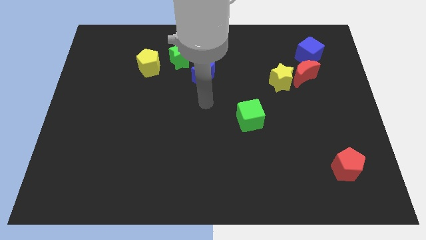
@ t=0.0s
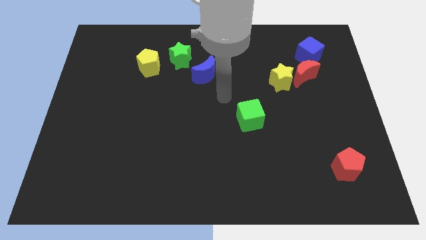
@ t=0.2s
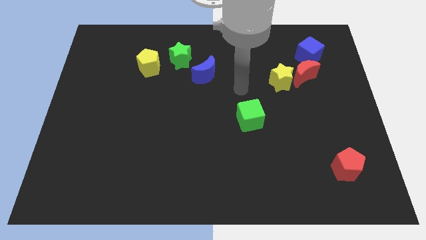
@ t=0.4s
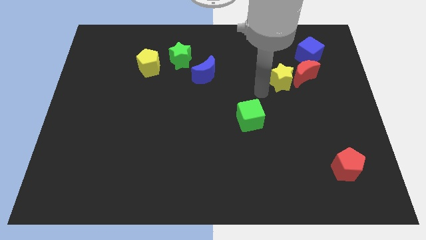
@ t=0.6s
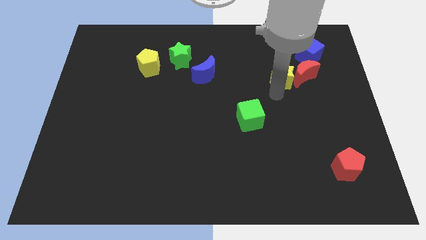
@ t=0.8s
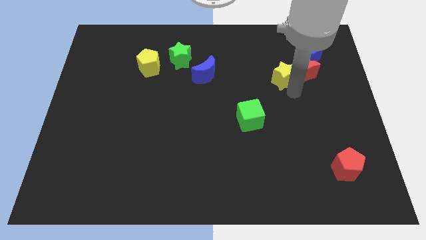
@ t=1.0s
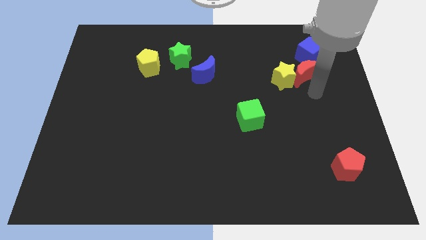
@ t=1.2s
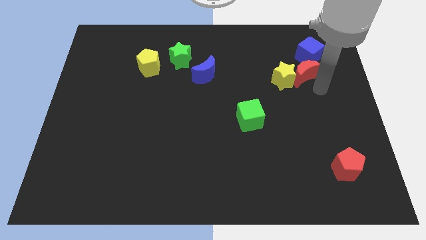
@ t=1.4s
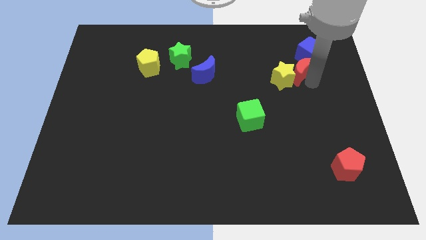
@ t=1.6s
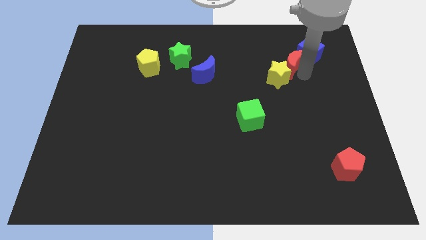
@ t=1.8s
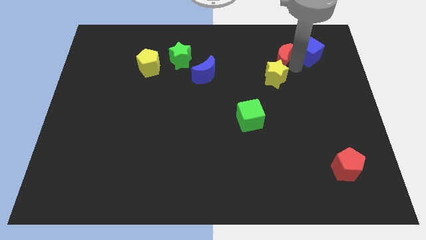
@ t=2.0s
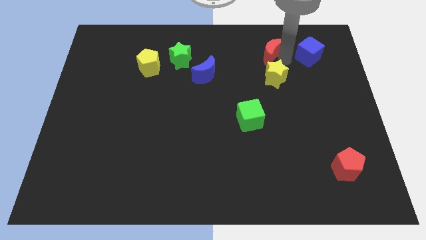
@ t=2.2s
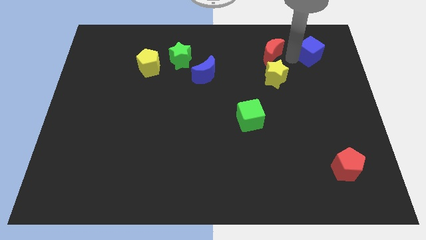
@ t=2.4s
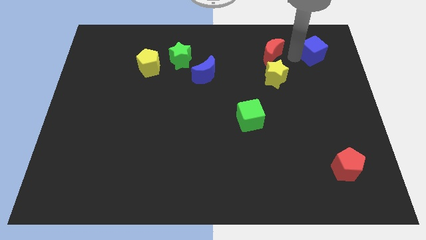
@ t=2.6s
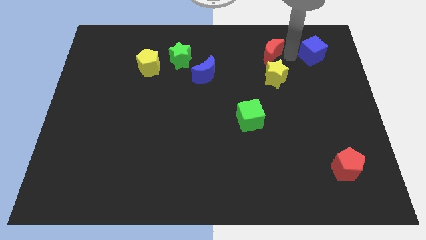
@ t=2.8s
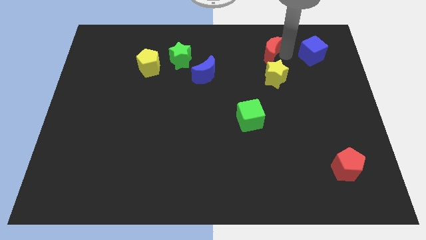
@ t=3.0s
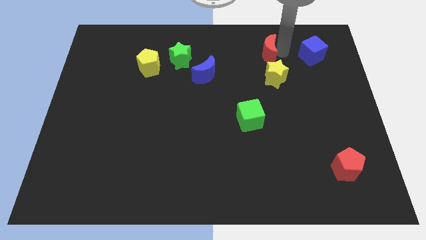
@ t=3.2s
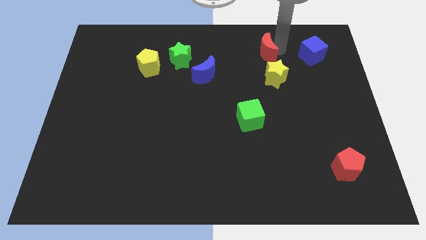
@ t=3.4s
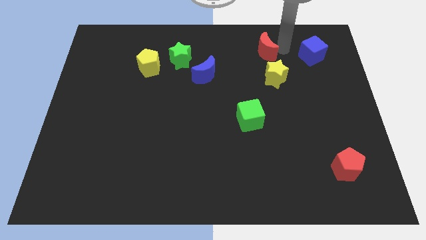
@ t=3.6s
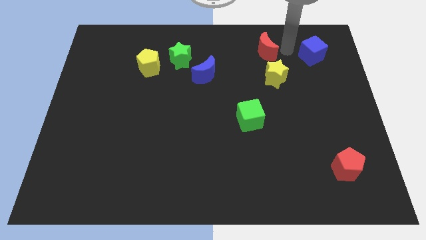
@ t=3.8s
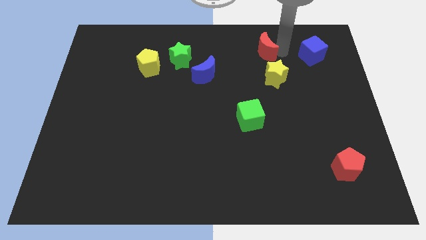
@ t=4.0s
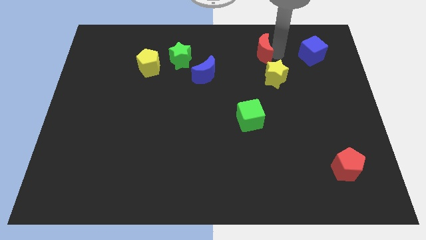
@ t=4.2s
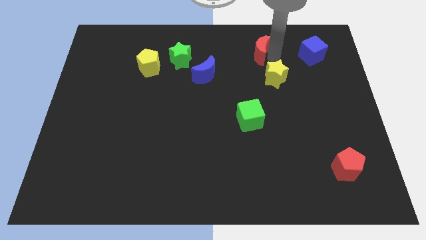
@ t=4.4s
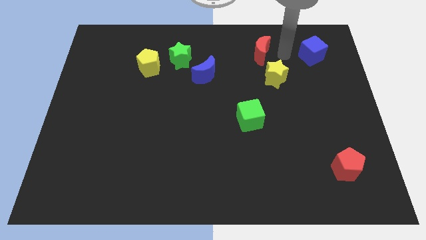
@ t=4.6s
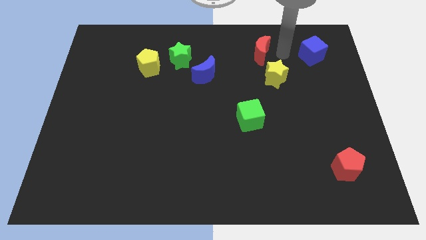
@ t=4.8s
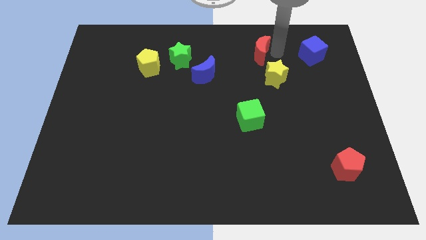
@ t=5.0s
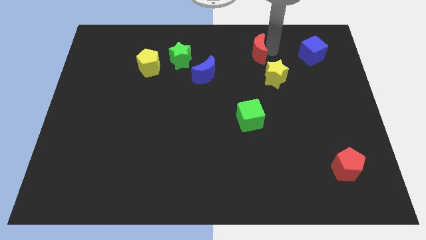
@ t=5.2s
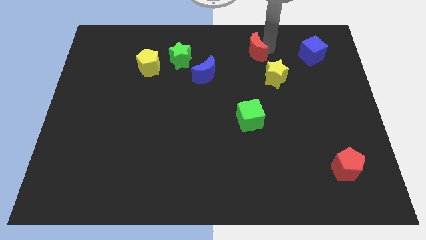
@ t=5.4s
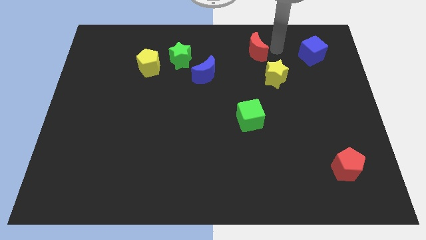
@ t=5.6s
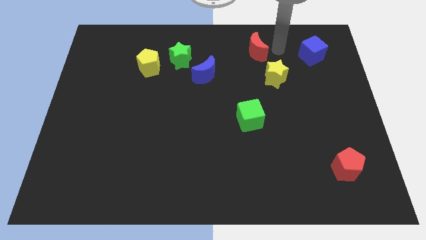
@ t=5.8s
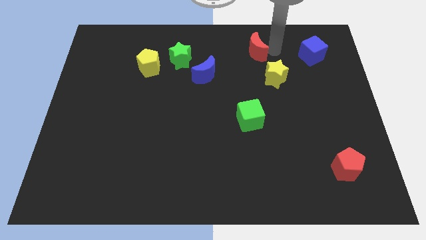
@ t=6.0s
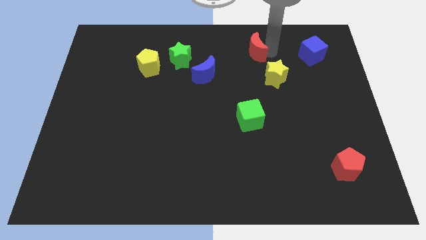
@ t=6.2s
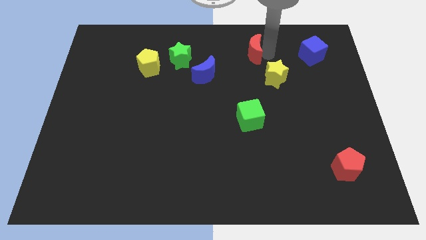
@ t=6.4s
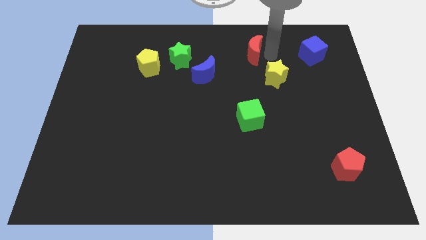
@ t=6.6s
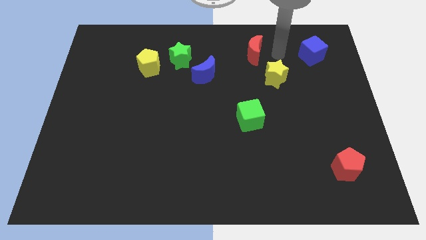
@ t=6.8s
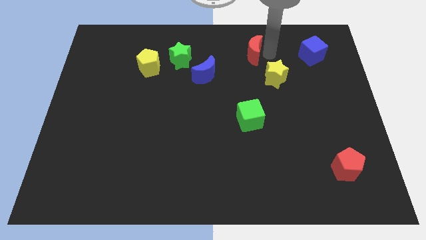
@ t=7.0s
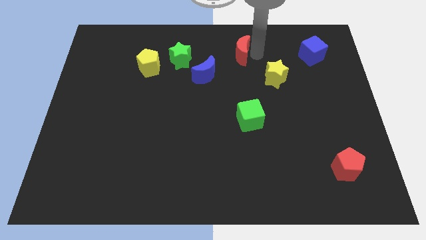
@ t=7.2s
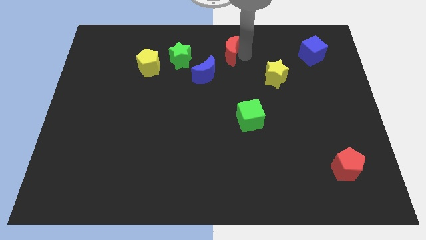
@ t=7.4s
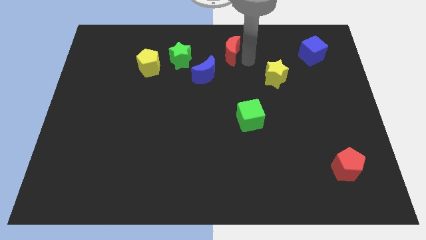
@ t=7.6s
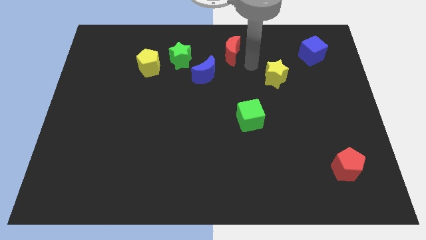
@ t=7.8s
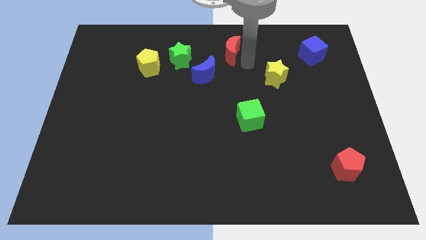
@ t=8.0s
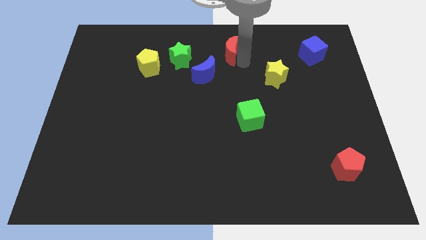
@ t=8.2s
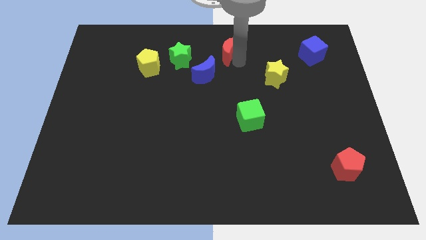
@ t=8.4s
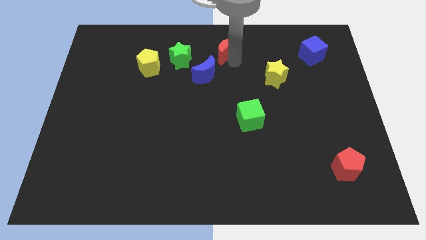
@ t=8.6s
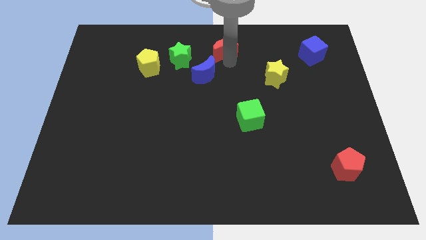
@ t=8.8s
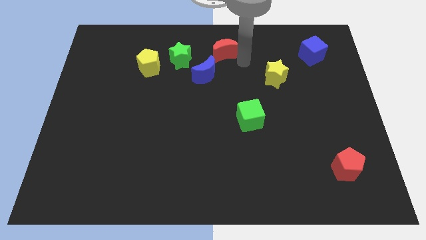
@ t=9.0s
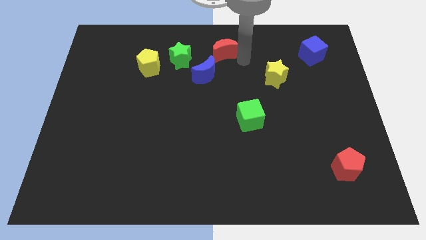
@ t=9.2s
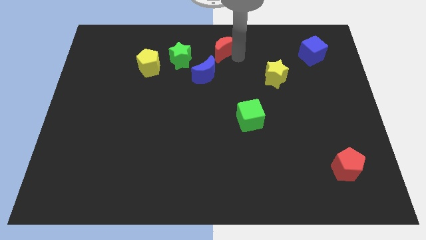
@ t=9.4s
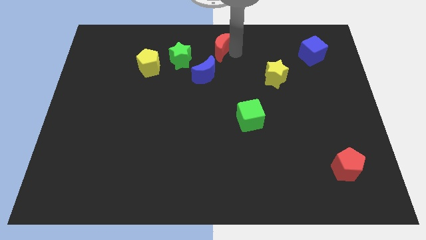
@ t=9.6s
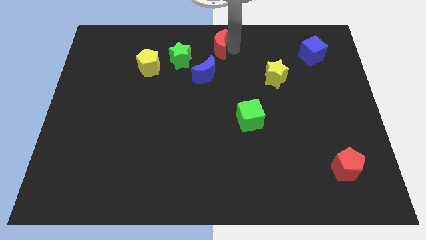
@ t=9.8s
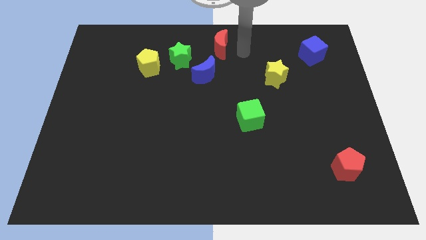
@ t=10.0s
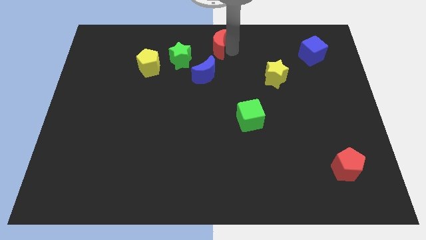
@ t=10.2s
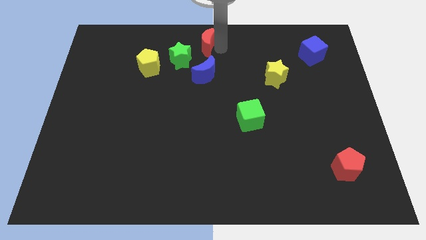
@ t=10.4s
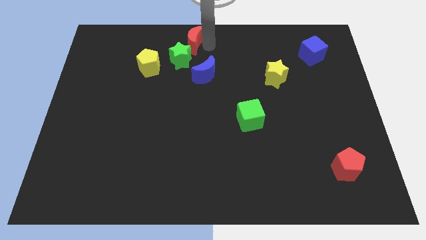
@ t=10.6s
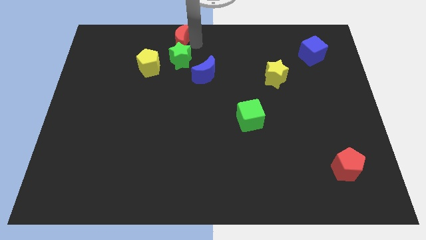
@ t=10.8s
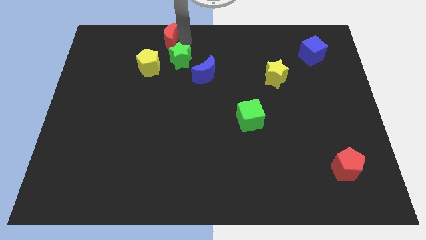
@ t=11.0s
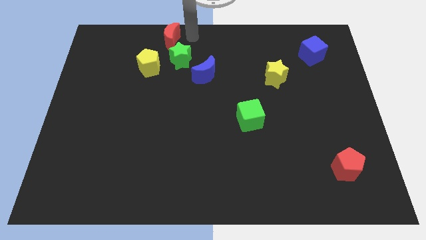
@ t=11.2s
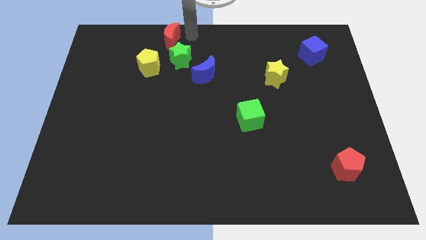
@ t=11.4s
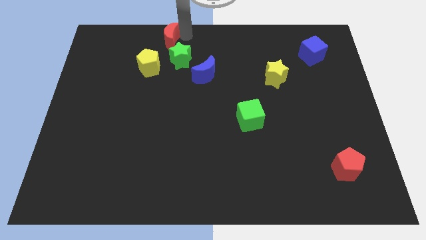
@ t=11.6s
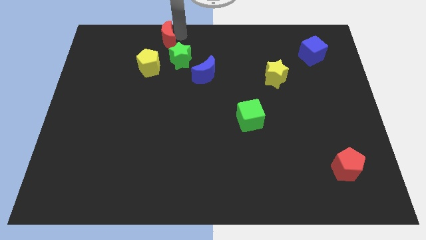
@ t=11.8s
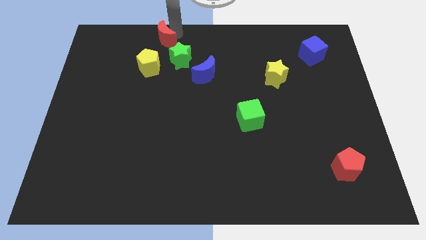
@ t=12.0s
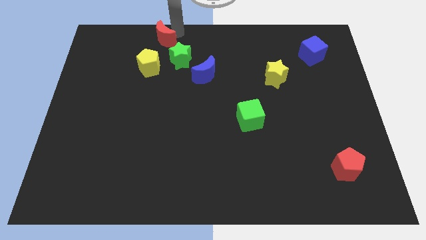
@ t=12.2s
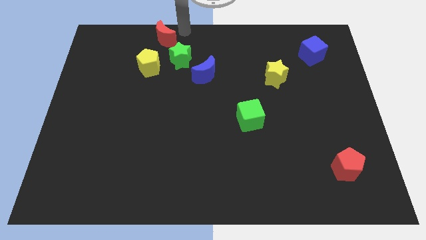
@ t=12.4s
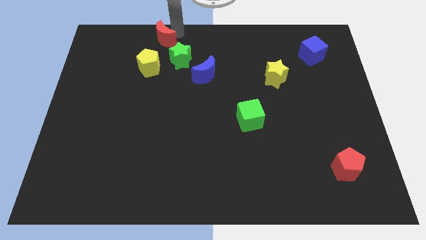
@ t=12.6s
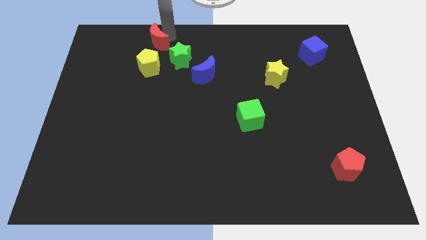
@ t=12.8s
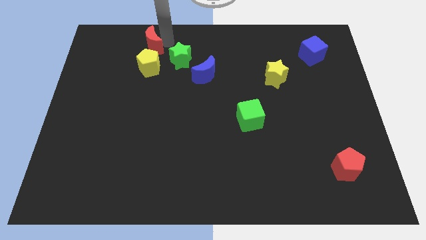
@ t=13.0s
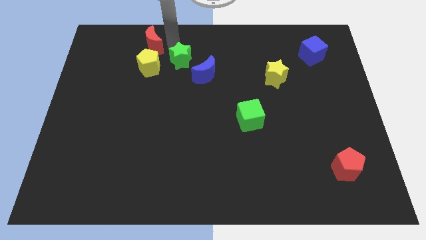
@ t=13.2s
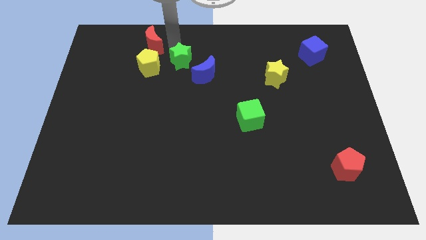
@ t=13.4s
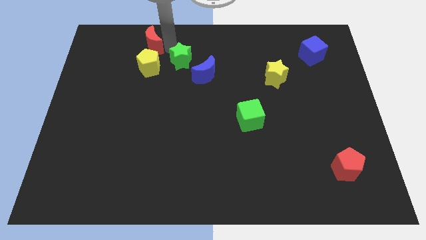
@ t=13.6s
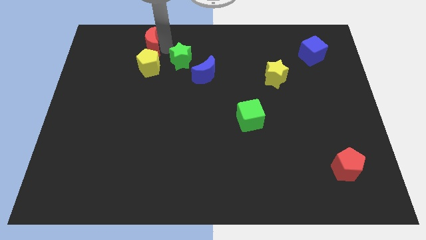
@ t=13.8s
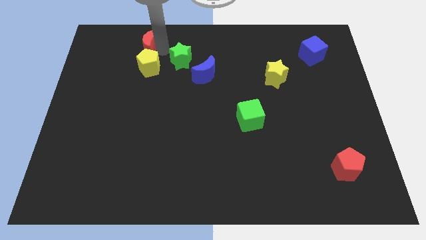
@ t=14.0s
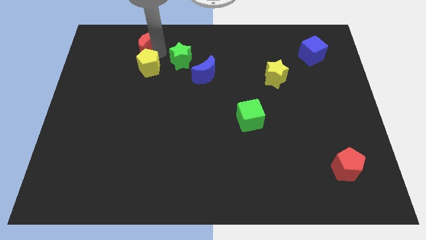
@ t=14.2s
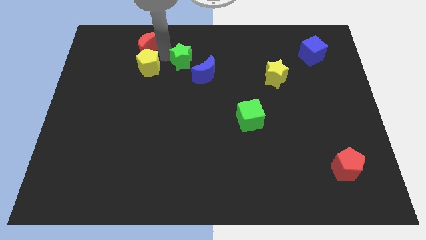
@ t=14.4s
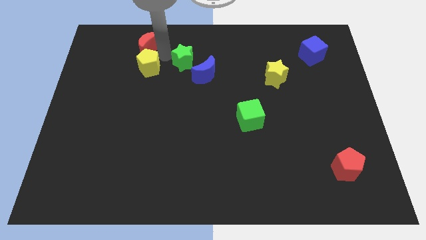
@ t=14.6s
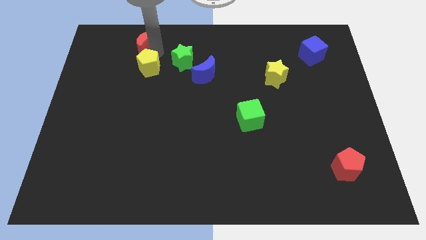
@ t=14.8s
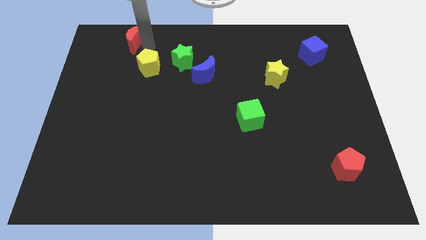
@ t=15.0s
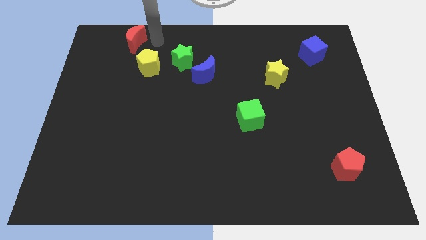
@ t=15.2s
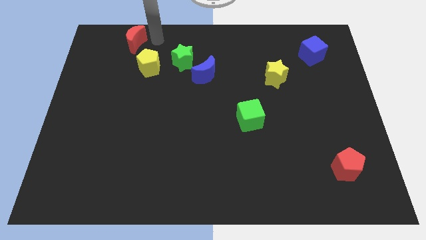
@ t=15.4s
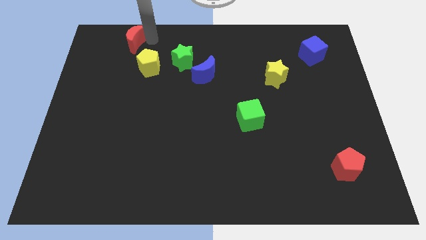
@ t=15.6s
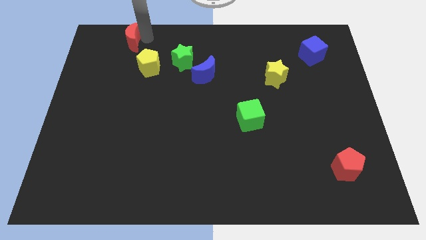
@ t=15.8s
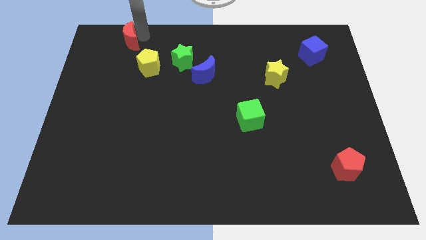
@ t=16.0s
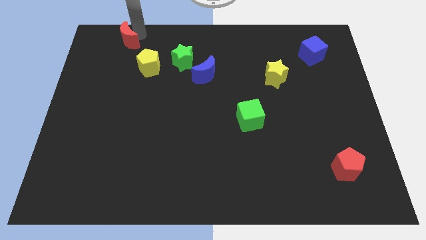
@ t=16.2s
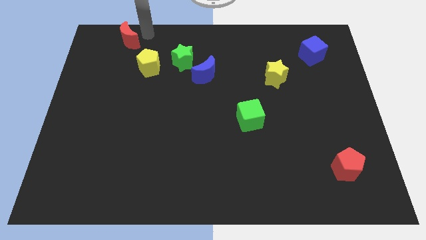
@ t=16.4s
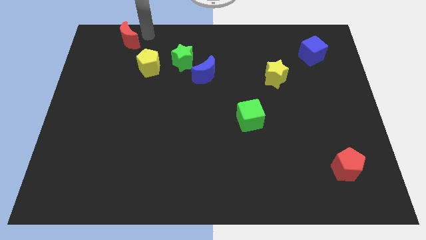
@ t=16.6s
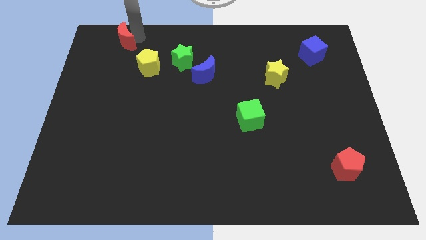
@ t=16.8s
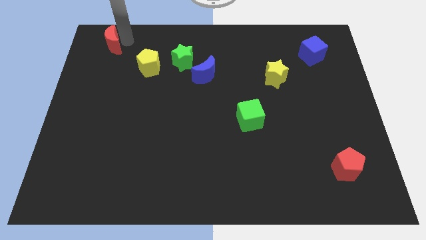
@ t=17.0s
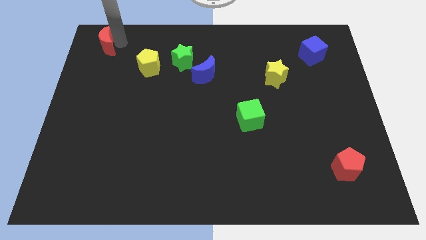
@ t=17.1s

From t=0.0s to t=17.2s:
slide the red moon to the top left corner
